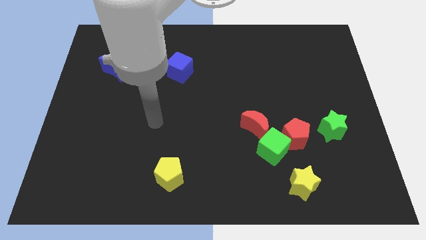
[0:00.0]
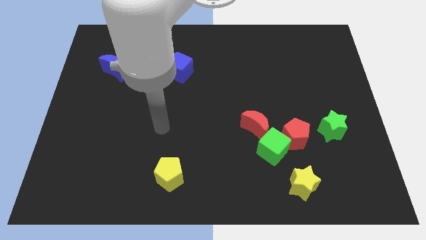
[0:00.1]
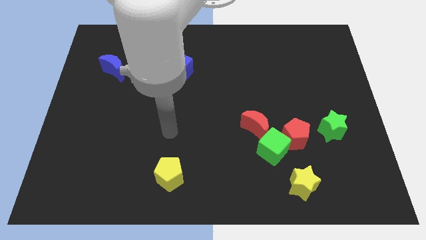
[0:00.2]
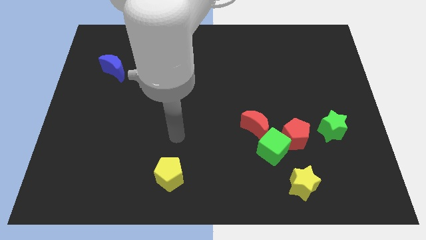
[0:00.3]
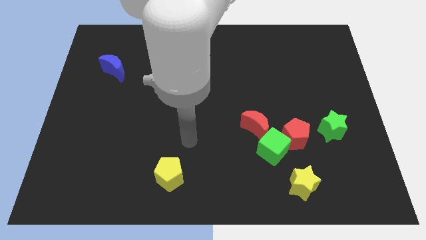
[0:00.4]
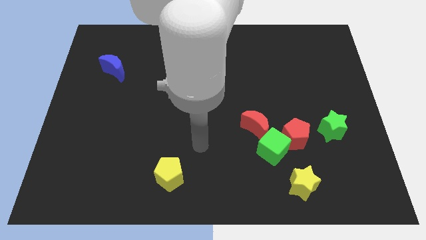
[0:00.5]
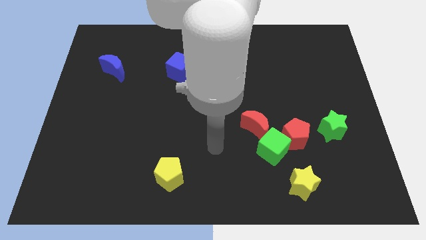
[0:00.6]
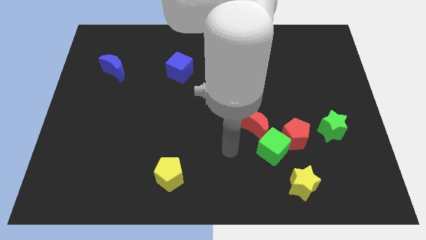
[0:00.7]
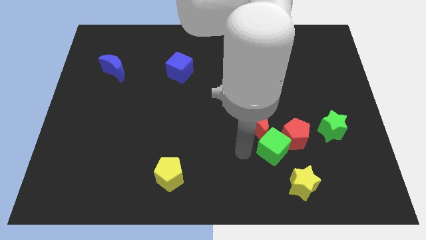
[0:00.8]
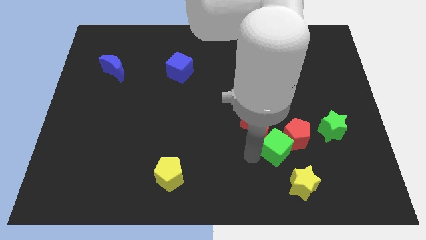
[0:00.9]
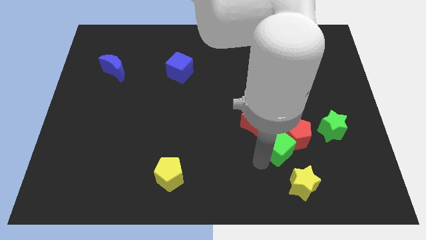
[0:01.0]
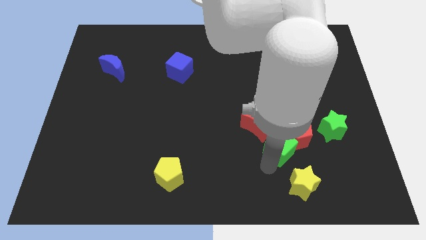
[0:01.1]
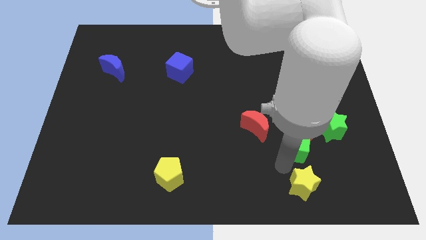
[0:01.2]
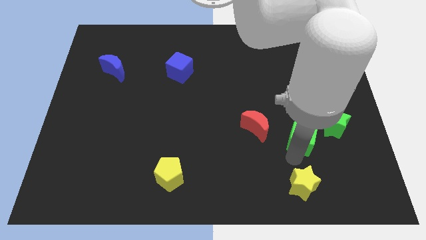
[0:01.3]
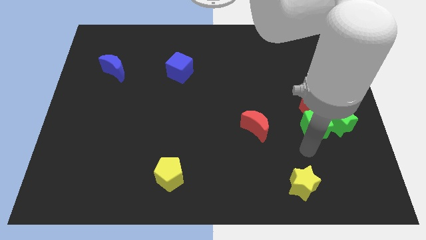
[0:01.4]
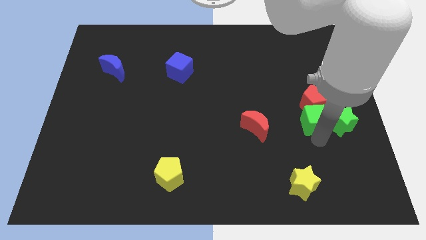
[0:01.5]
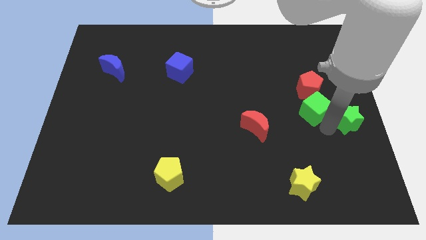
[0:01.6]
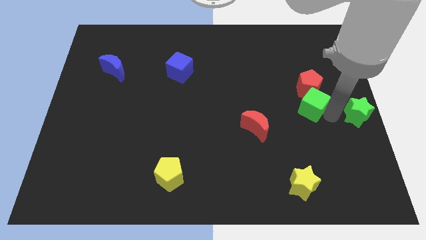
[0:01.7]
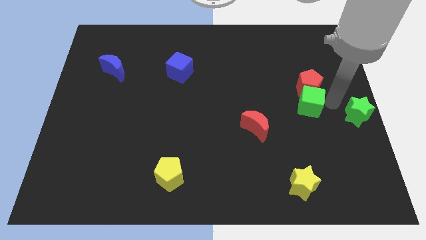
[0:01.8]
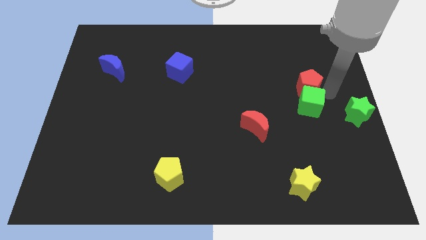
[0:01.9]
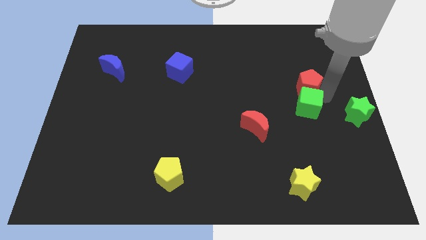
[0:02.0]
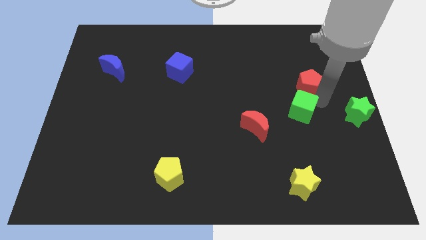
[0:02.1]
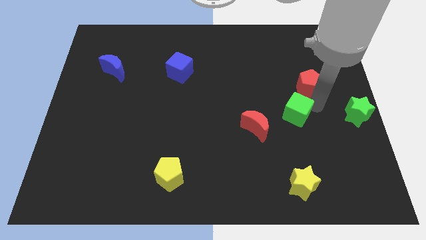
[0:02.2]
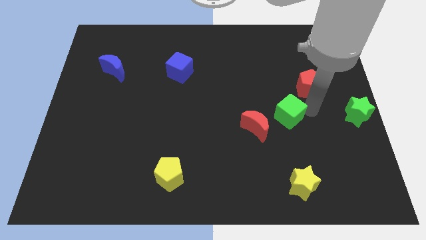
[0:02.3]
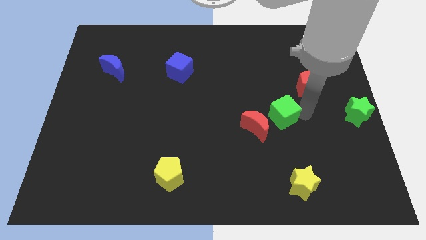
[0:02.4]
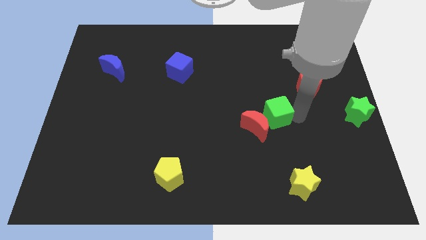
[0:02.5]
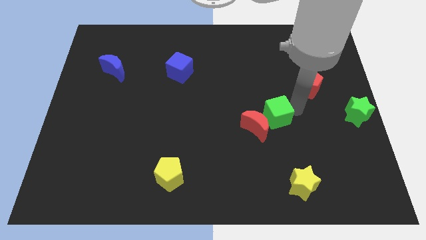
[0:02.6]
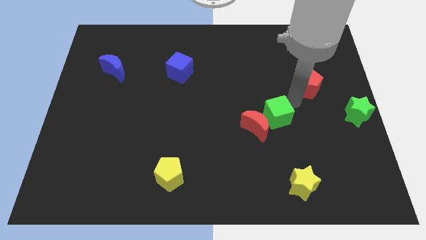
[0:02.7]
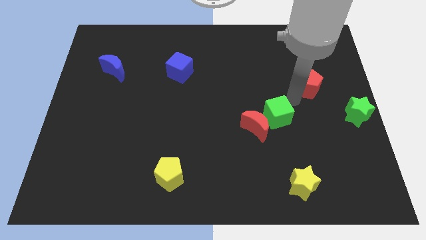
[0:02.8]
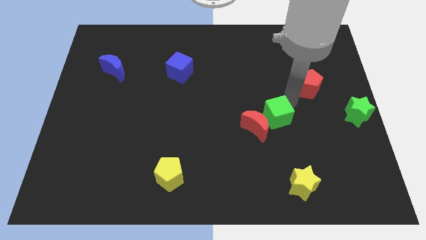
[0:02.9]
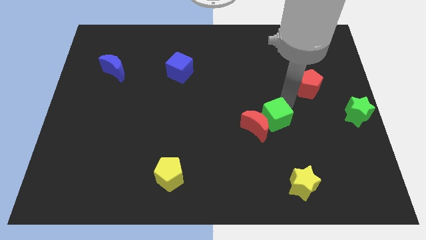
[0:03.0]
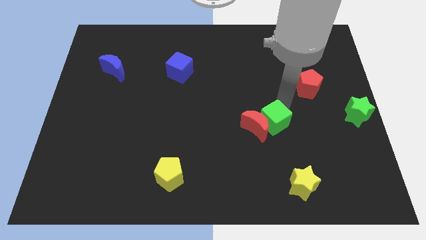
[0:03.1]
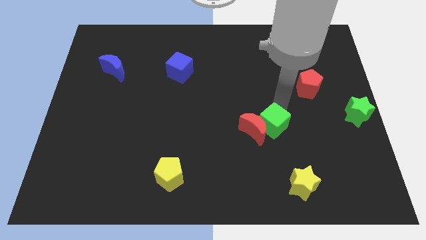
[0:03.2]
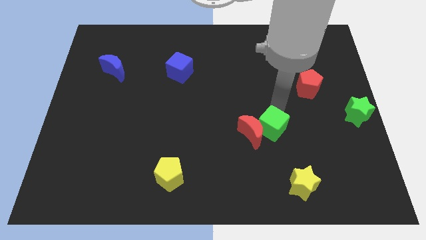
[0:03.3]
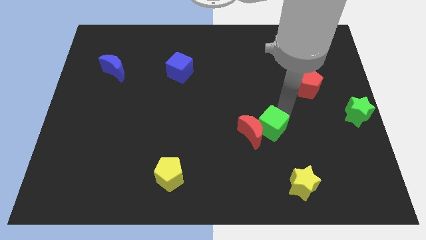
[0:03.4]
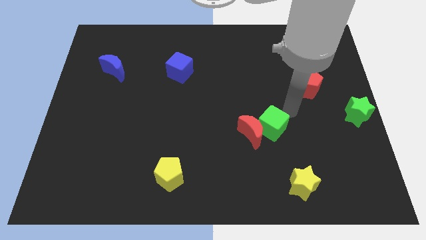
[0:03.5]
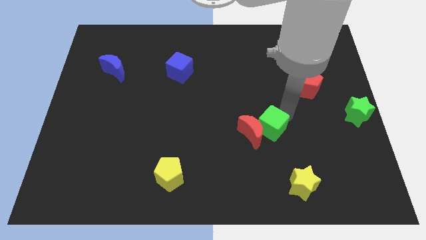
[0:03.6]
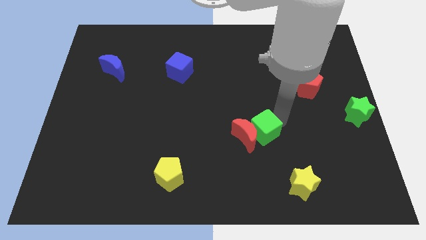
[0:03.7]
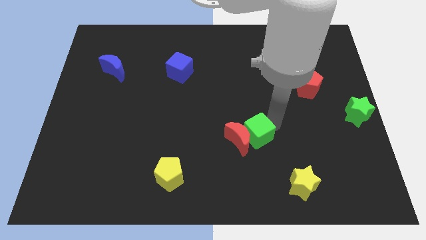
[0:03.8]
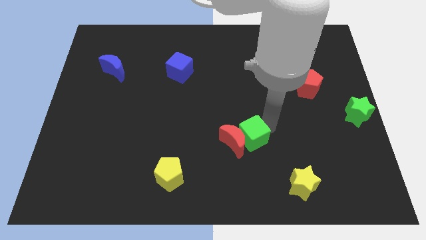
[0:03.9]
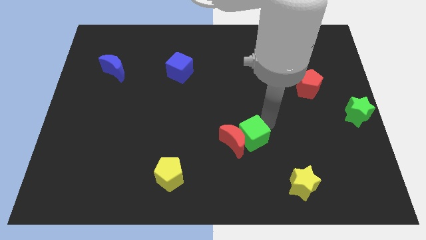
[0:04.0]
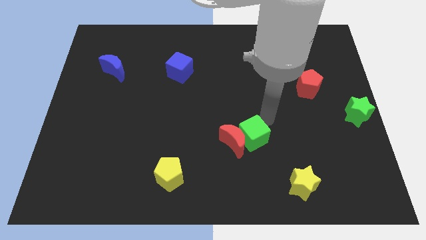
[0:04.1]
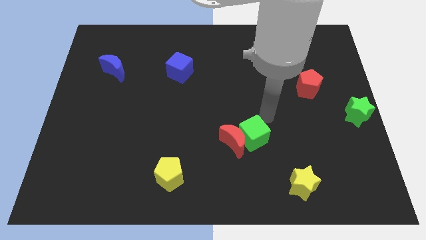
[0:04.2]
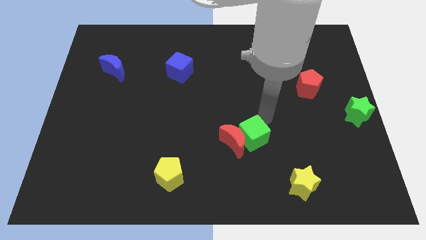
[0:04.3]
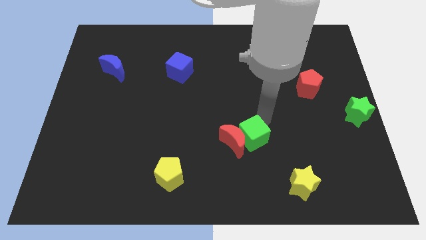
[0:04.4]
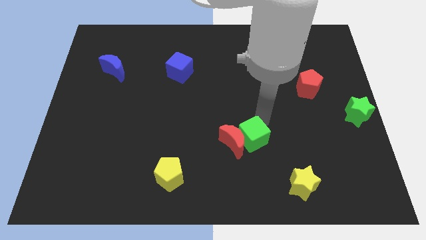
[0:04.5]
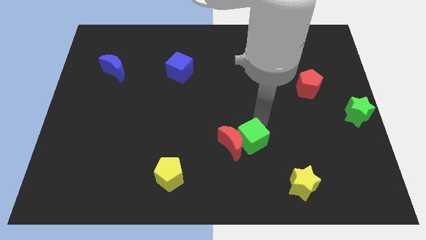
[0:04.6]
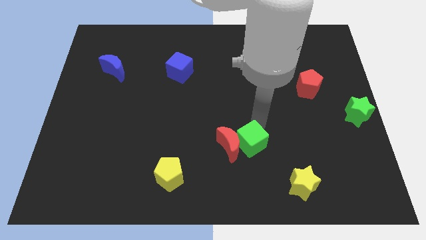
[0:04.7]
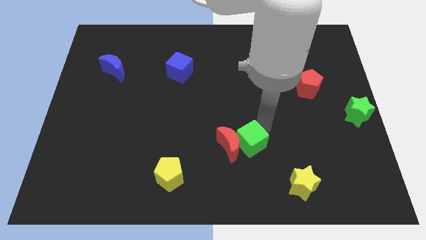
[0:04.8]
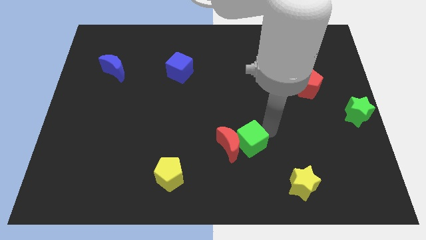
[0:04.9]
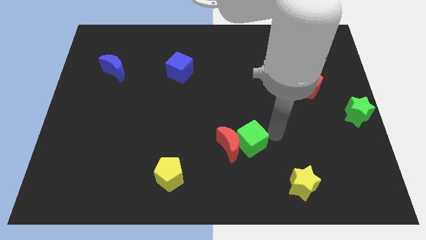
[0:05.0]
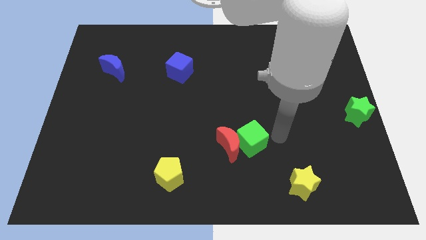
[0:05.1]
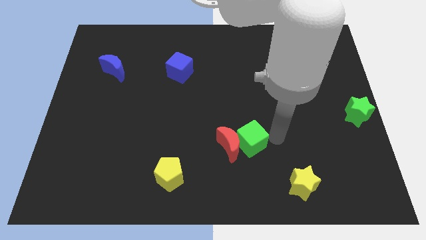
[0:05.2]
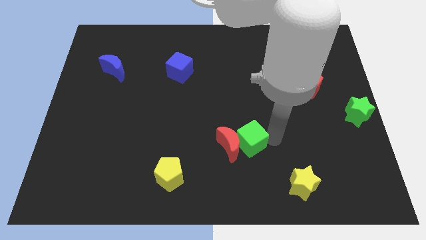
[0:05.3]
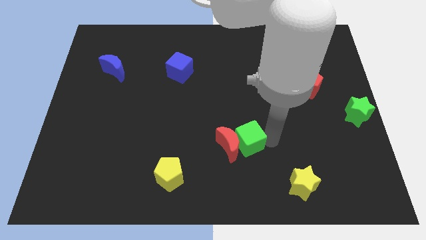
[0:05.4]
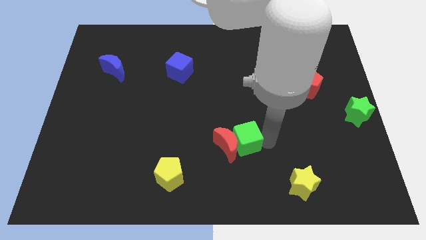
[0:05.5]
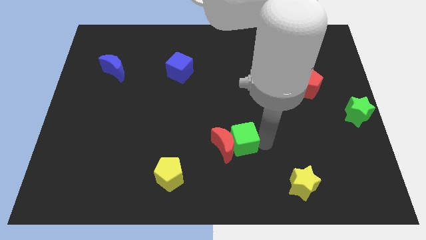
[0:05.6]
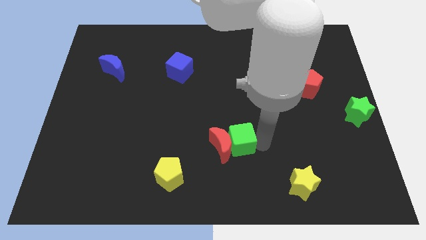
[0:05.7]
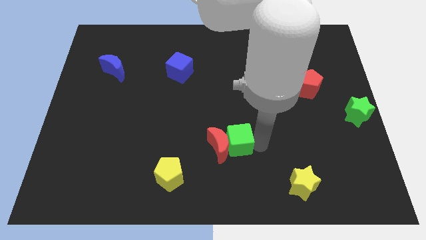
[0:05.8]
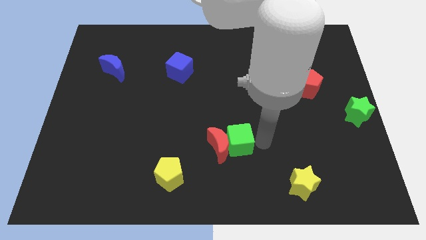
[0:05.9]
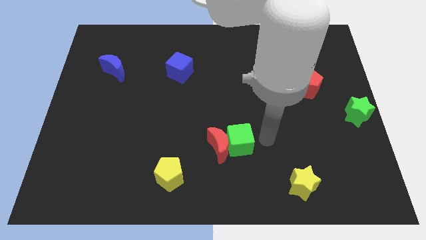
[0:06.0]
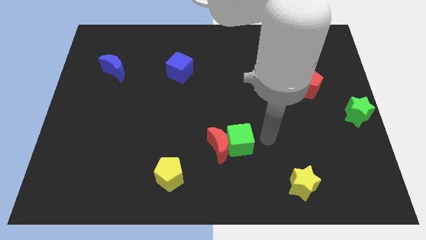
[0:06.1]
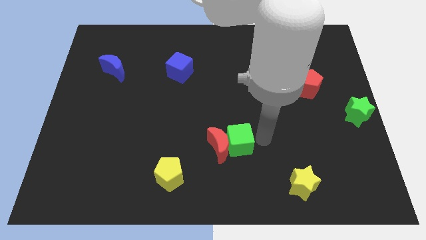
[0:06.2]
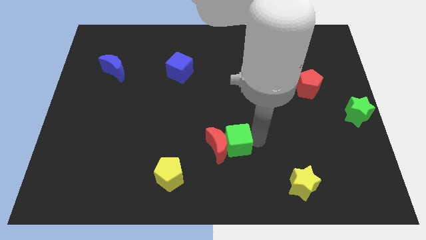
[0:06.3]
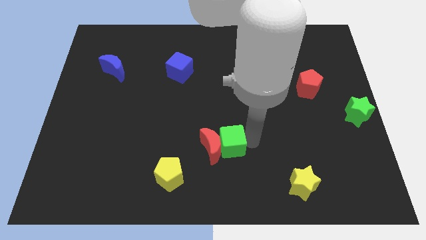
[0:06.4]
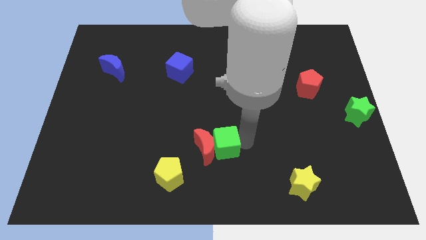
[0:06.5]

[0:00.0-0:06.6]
separate the green cube from the group

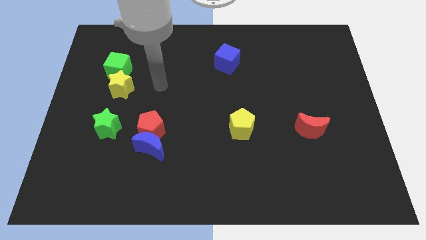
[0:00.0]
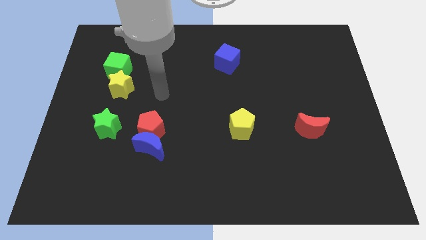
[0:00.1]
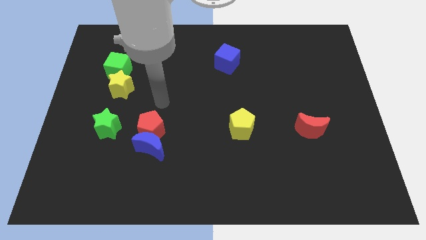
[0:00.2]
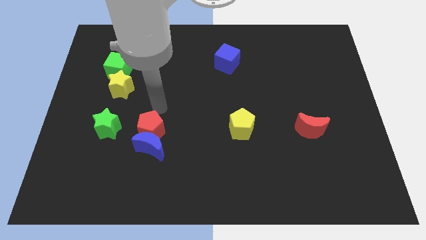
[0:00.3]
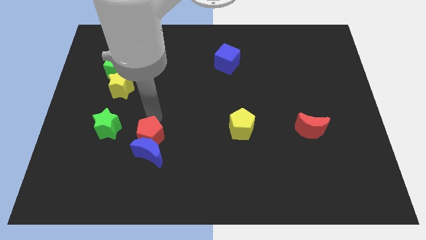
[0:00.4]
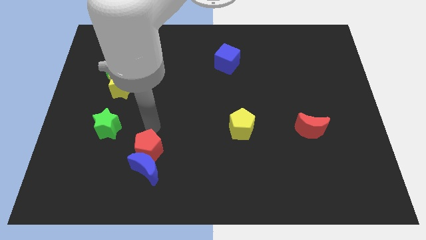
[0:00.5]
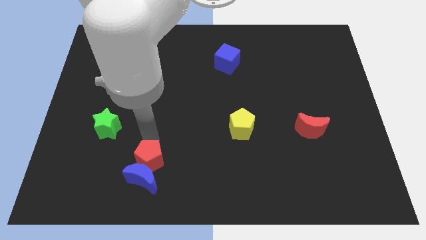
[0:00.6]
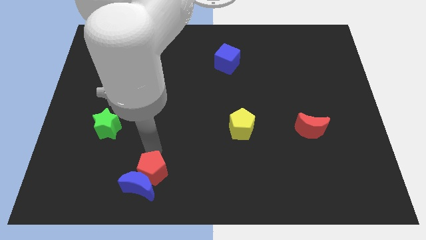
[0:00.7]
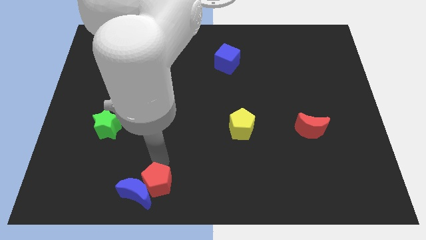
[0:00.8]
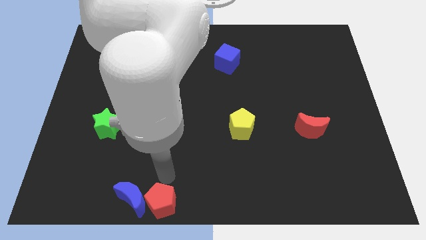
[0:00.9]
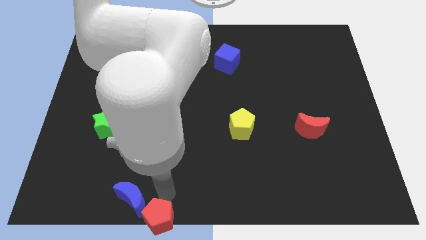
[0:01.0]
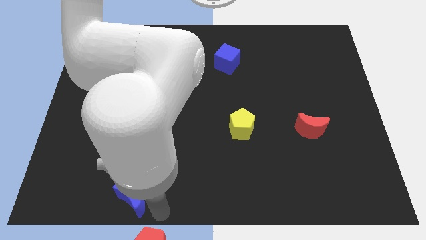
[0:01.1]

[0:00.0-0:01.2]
separate the blue moon from the red pentagon

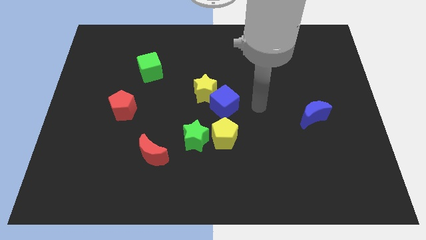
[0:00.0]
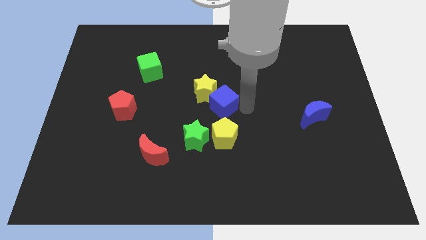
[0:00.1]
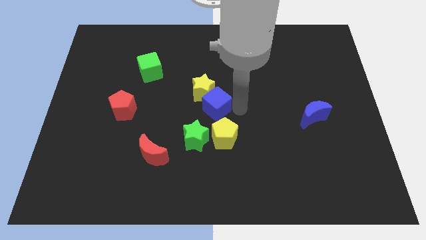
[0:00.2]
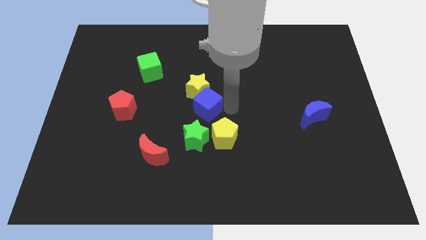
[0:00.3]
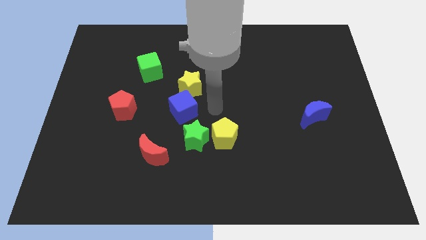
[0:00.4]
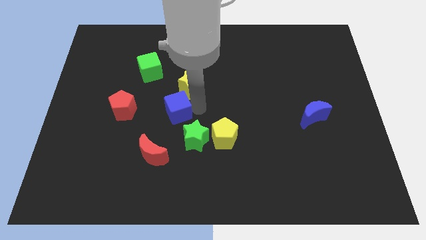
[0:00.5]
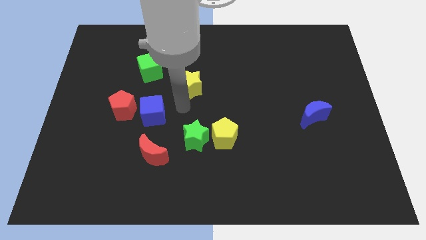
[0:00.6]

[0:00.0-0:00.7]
pull the yellow star apart from the blue cube

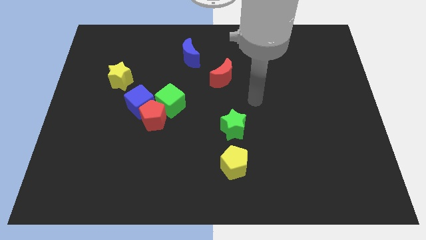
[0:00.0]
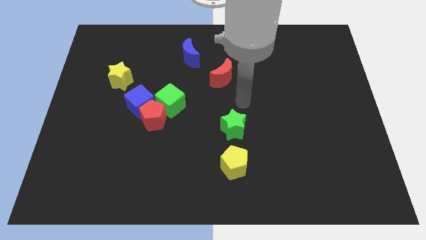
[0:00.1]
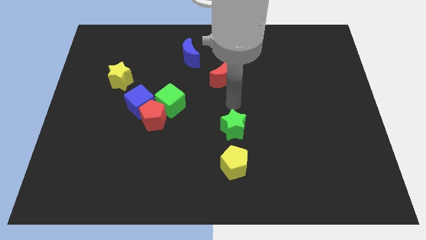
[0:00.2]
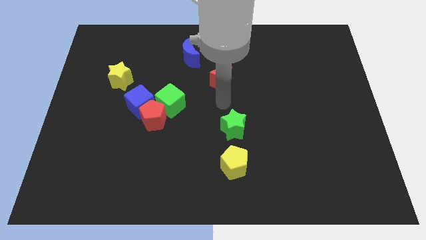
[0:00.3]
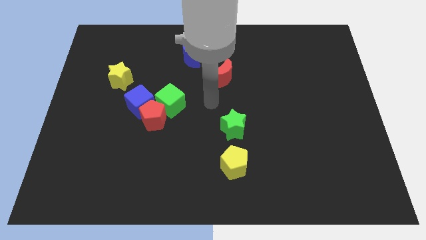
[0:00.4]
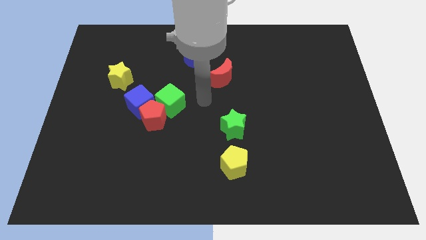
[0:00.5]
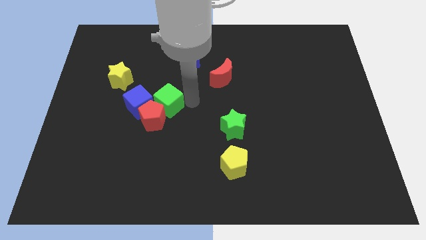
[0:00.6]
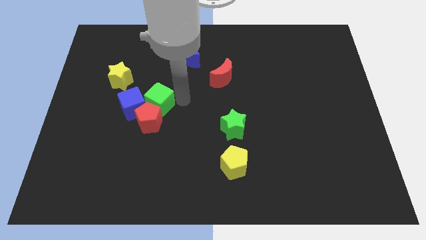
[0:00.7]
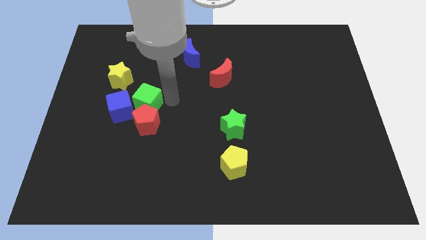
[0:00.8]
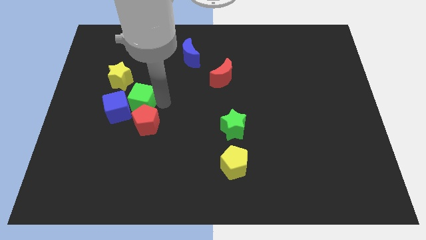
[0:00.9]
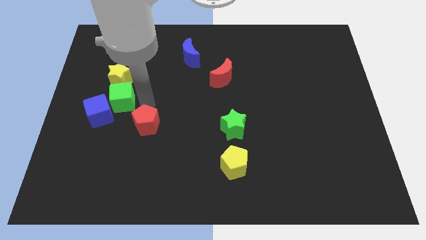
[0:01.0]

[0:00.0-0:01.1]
pull the red pentagon apart from the blue cube and green cube

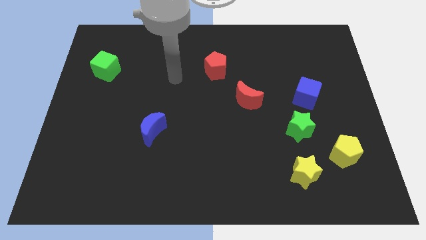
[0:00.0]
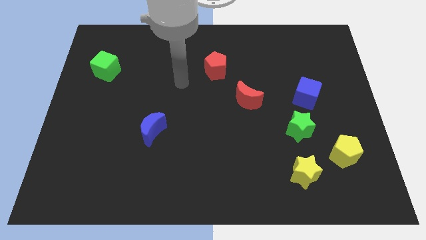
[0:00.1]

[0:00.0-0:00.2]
pull the blue cube apart from the green star
